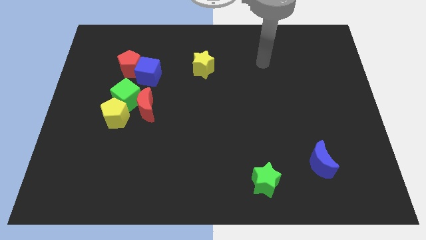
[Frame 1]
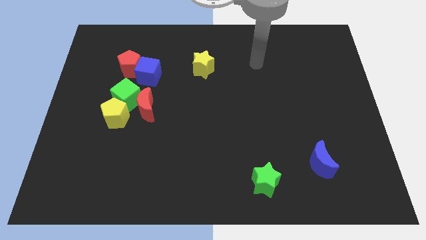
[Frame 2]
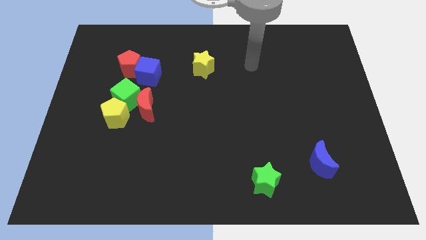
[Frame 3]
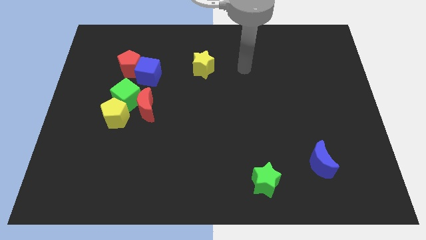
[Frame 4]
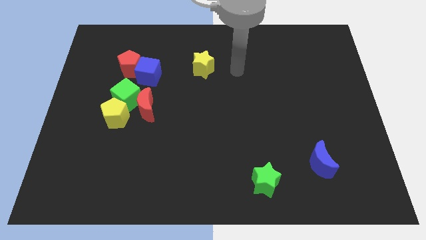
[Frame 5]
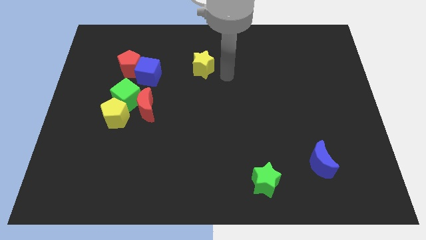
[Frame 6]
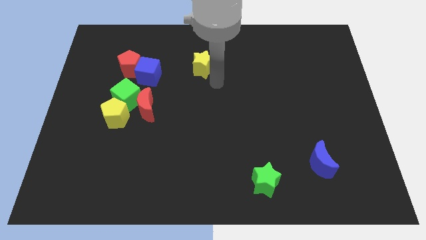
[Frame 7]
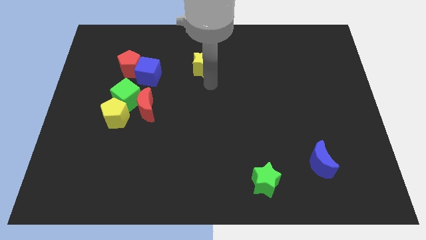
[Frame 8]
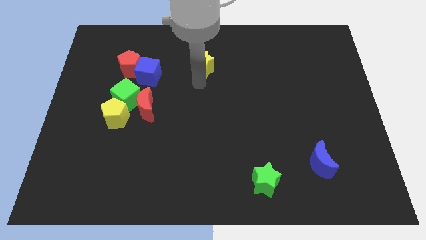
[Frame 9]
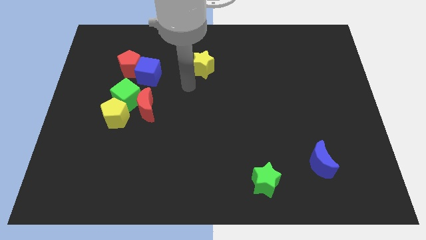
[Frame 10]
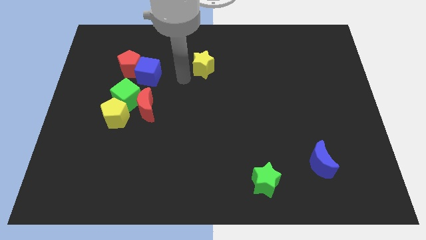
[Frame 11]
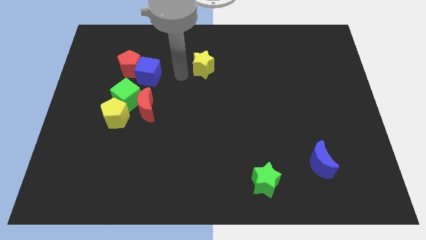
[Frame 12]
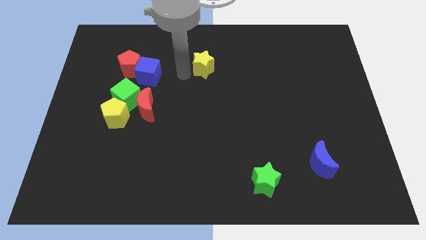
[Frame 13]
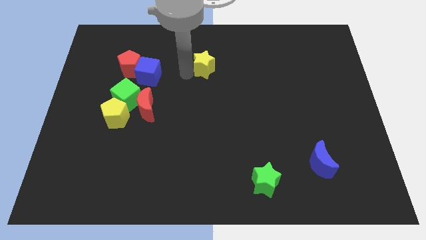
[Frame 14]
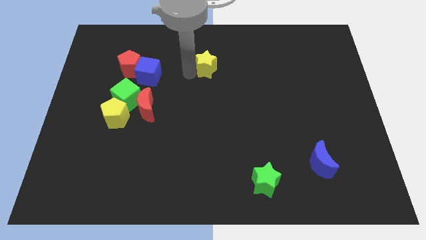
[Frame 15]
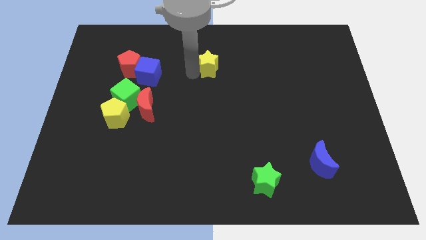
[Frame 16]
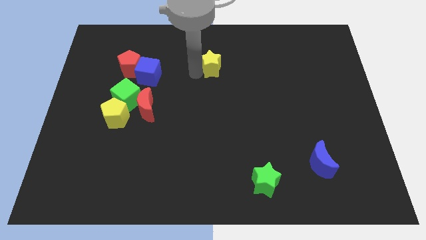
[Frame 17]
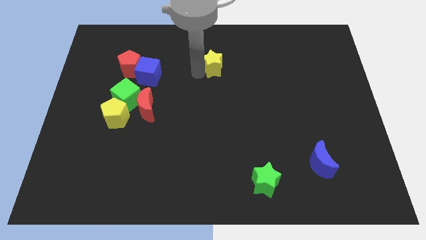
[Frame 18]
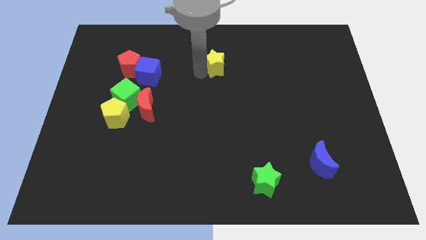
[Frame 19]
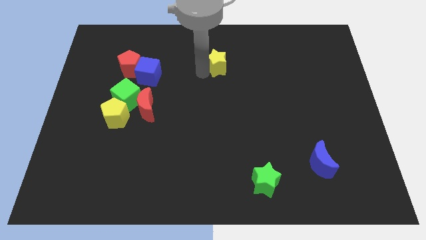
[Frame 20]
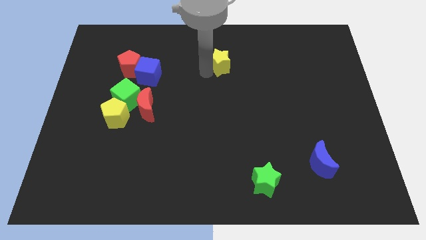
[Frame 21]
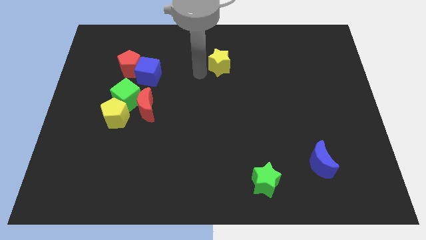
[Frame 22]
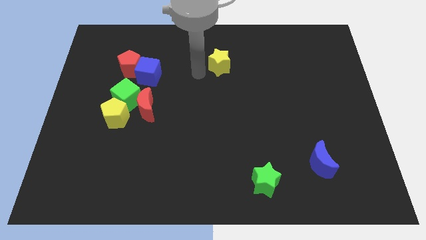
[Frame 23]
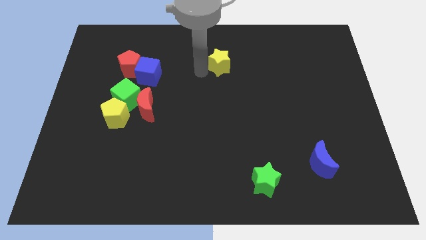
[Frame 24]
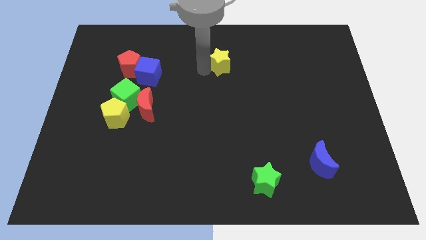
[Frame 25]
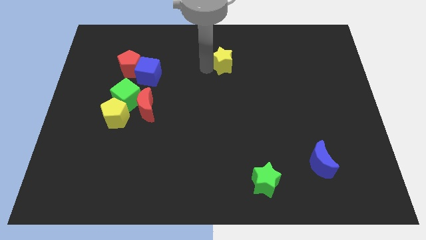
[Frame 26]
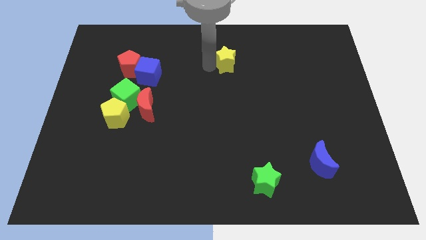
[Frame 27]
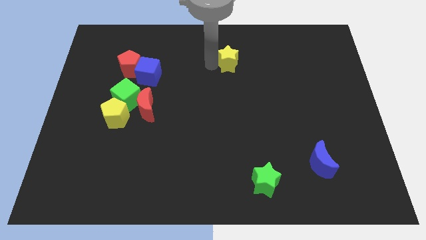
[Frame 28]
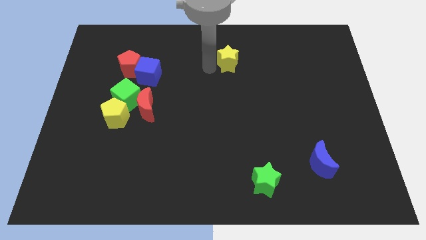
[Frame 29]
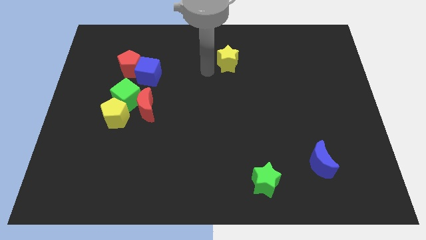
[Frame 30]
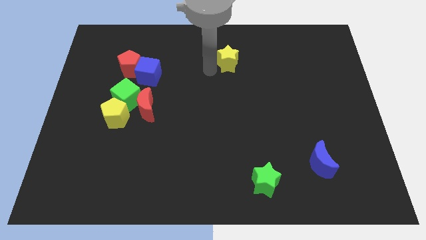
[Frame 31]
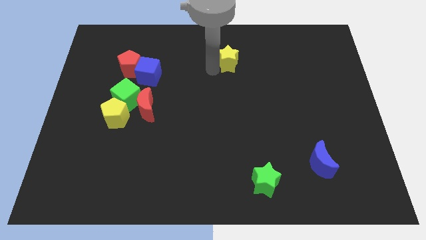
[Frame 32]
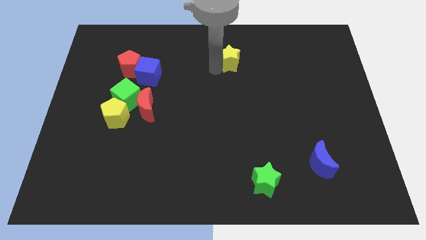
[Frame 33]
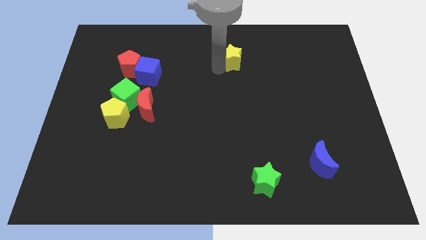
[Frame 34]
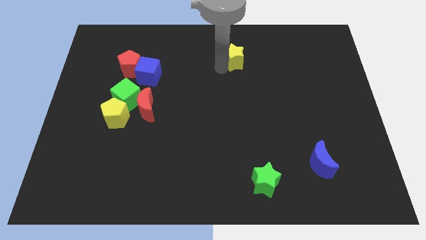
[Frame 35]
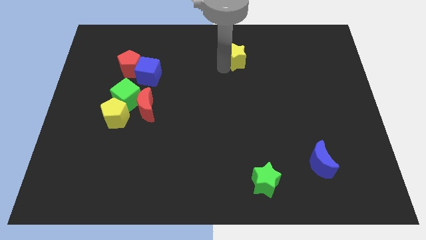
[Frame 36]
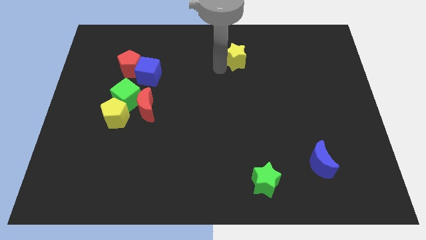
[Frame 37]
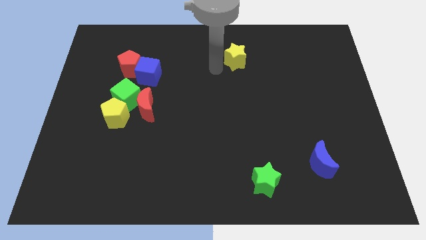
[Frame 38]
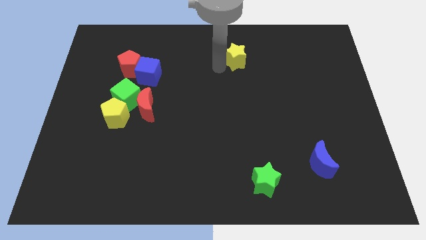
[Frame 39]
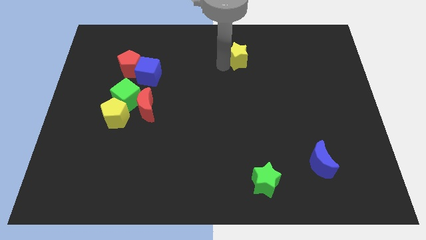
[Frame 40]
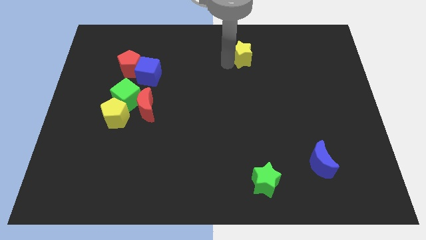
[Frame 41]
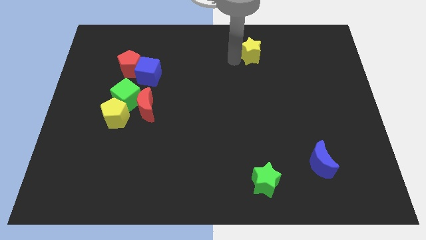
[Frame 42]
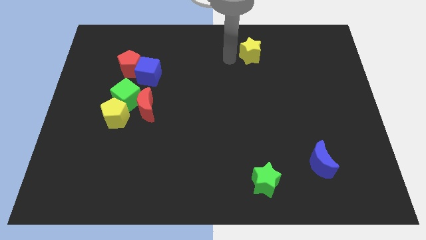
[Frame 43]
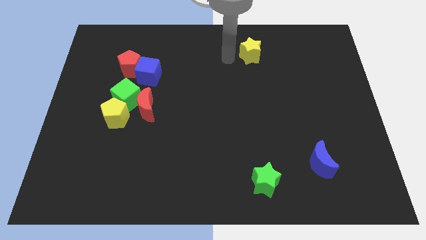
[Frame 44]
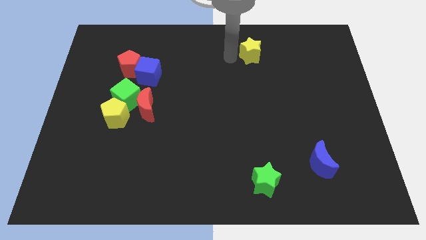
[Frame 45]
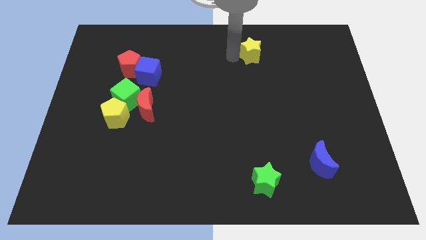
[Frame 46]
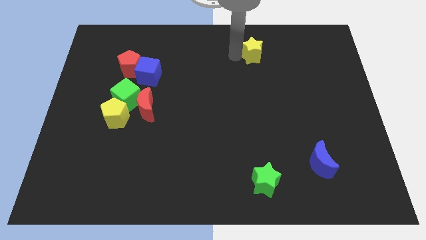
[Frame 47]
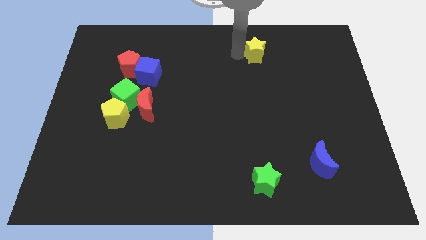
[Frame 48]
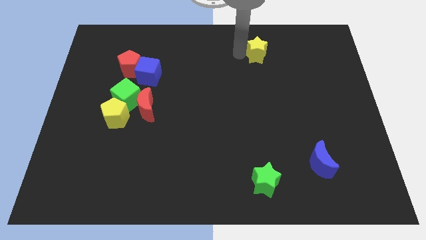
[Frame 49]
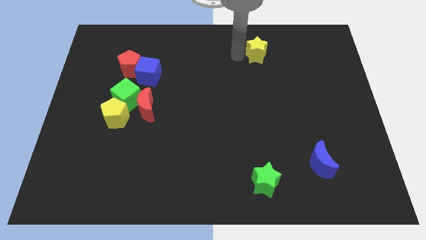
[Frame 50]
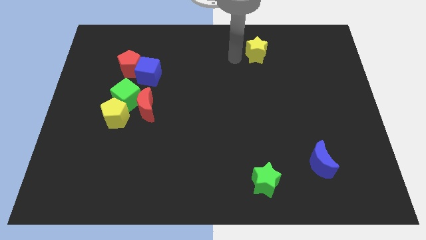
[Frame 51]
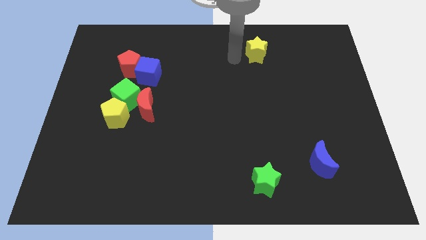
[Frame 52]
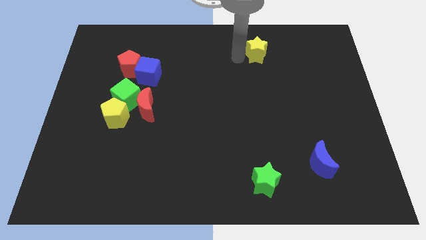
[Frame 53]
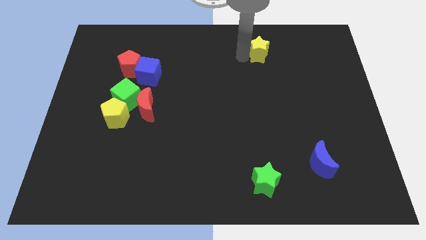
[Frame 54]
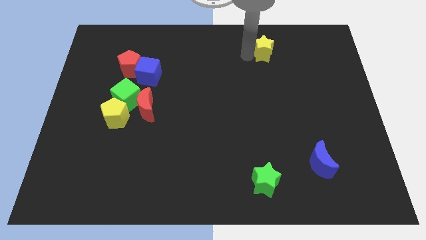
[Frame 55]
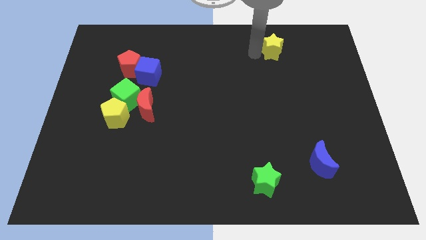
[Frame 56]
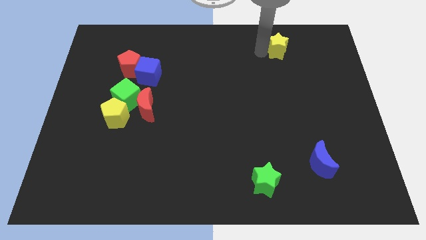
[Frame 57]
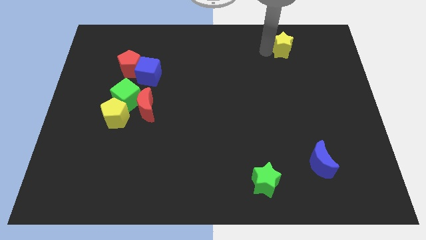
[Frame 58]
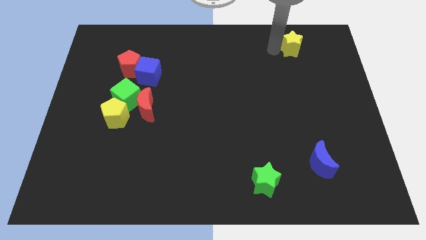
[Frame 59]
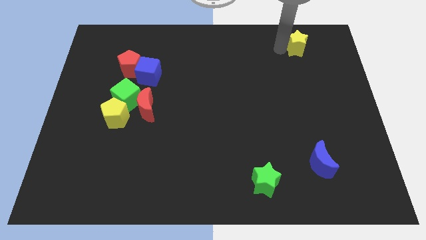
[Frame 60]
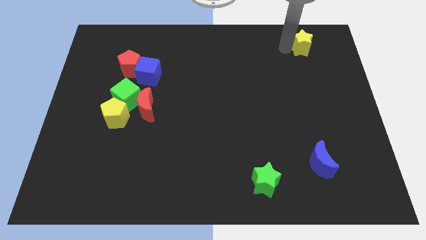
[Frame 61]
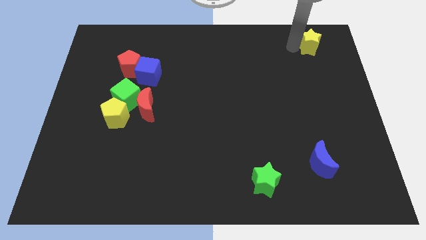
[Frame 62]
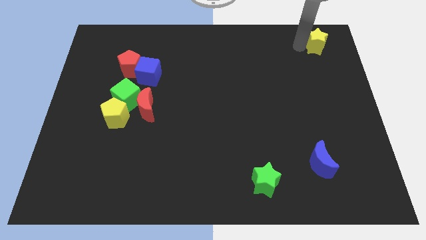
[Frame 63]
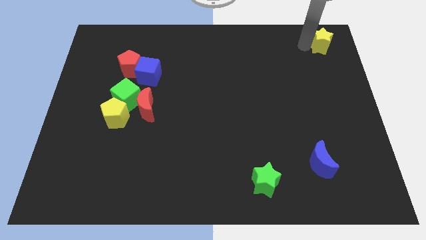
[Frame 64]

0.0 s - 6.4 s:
move the yellow star to the top right corner

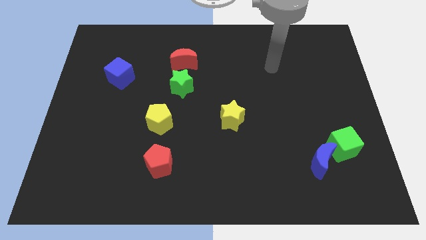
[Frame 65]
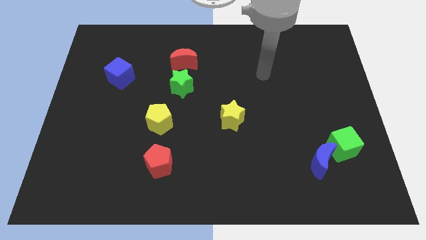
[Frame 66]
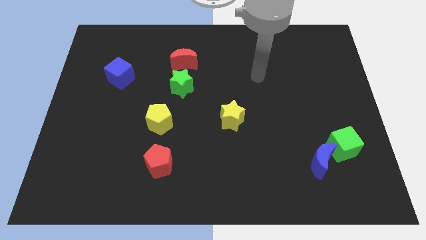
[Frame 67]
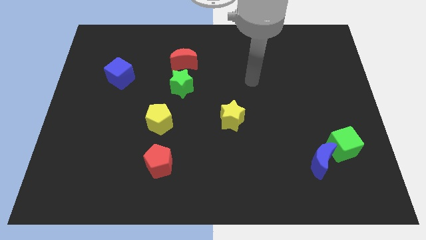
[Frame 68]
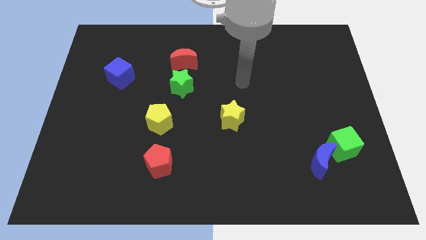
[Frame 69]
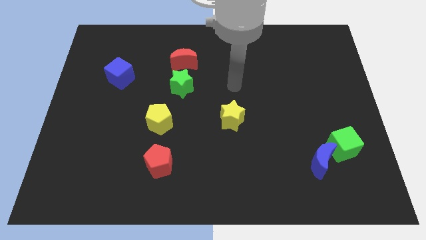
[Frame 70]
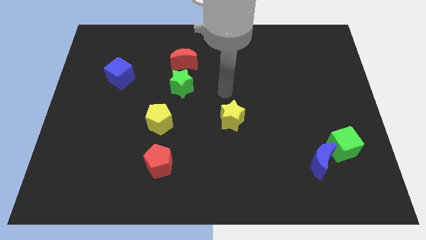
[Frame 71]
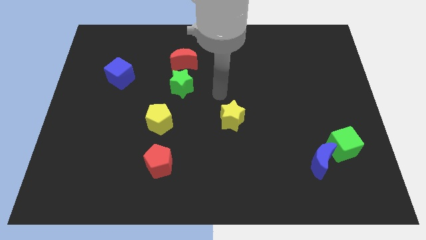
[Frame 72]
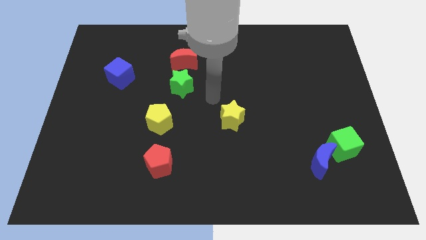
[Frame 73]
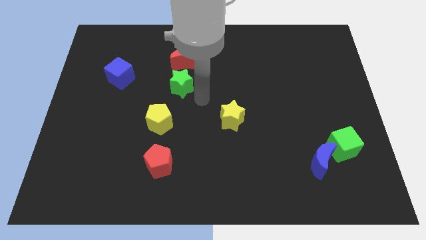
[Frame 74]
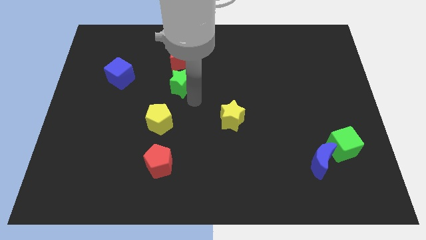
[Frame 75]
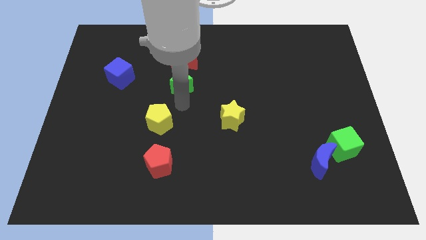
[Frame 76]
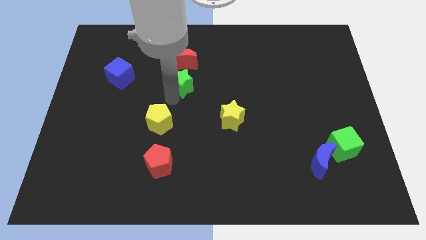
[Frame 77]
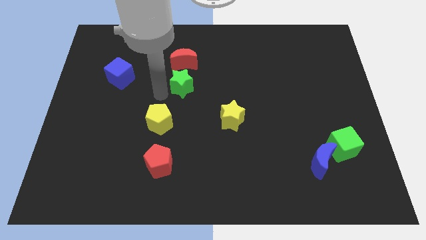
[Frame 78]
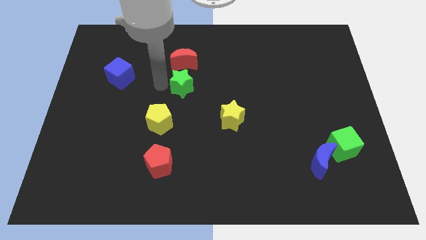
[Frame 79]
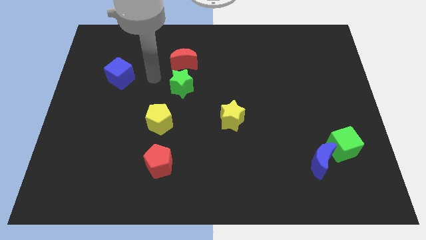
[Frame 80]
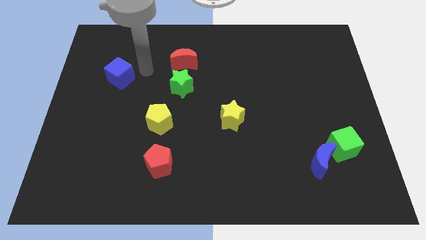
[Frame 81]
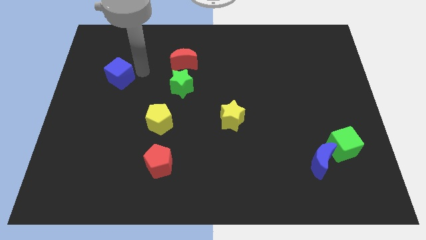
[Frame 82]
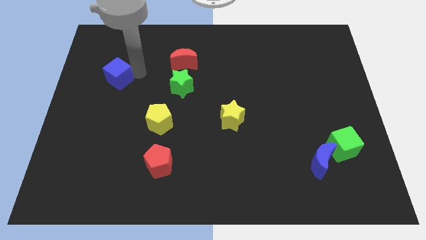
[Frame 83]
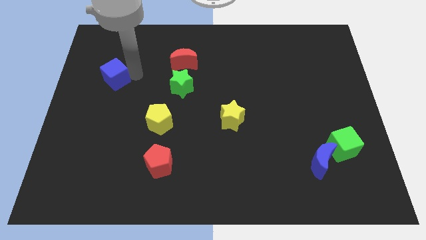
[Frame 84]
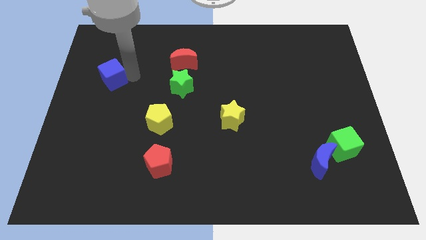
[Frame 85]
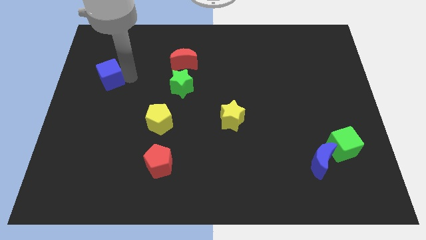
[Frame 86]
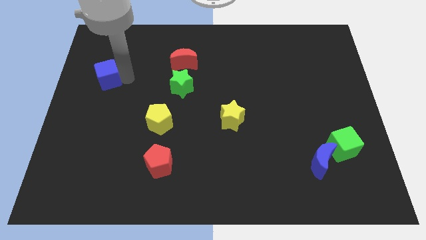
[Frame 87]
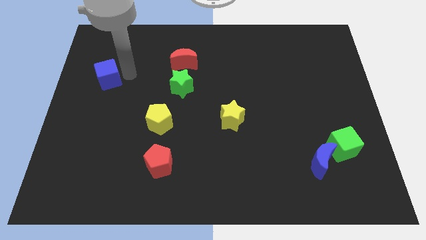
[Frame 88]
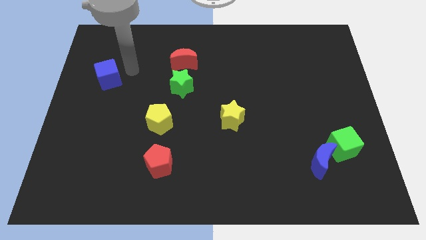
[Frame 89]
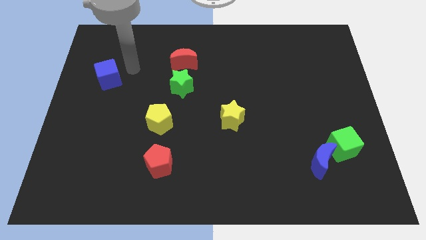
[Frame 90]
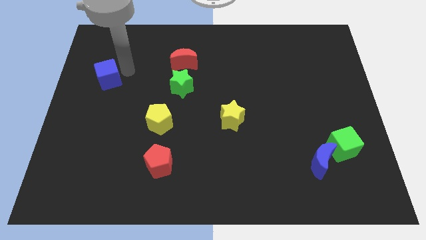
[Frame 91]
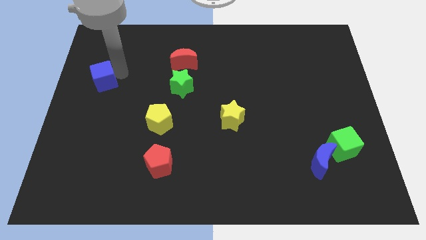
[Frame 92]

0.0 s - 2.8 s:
put the blue cube to the left side of the board
